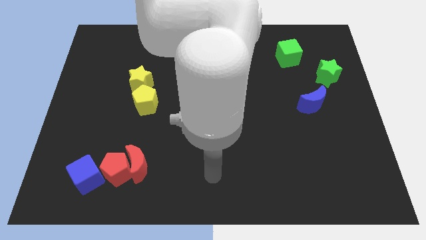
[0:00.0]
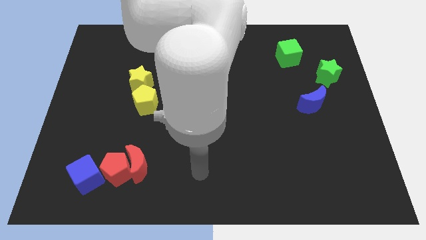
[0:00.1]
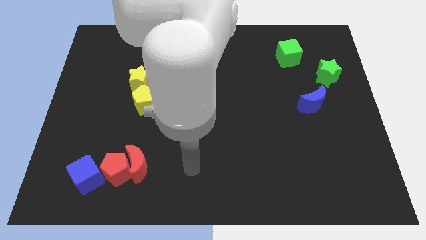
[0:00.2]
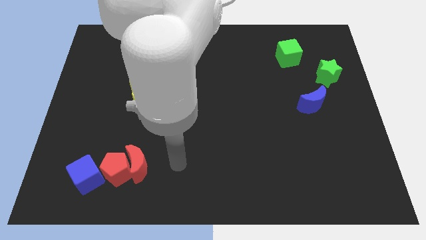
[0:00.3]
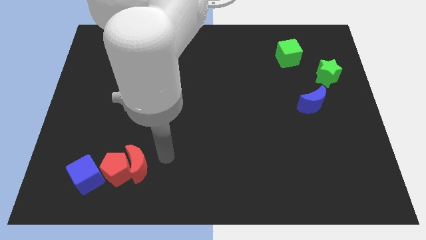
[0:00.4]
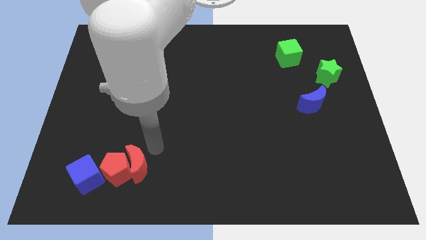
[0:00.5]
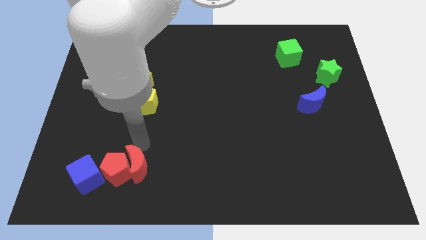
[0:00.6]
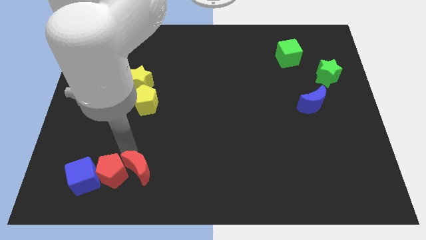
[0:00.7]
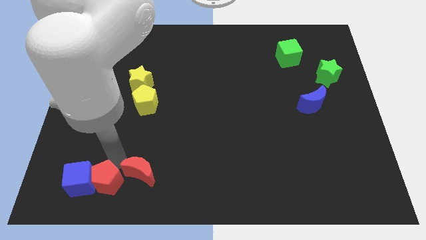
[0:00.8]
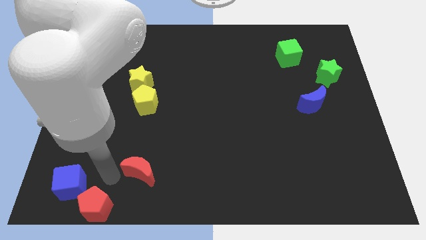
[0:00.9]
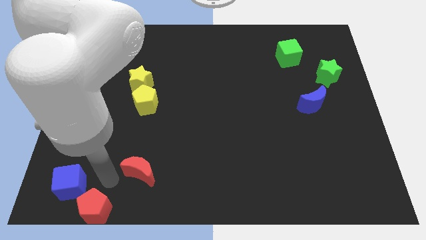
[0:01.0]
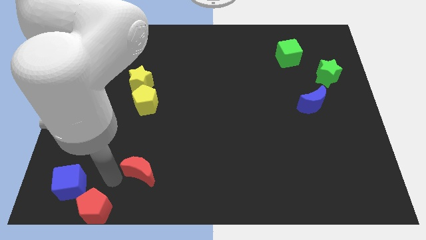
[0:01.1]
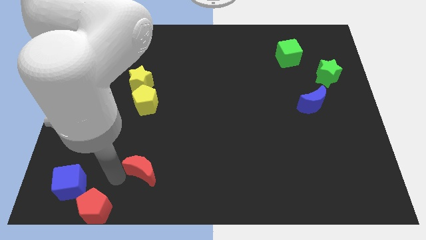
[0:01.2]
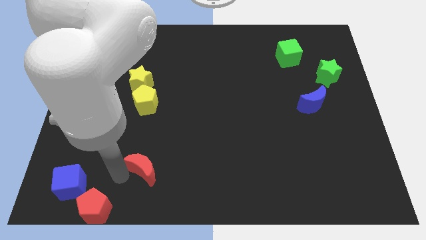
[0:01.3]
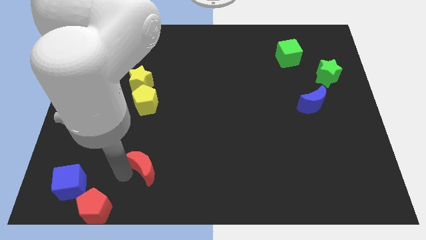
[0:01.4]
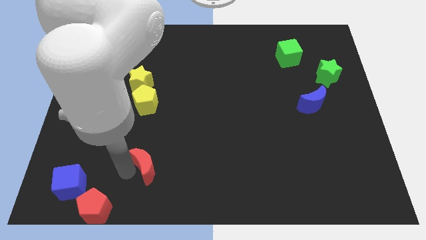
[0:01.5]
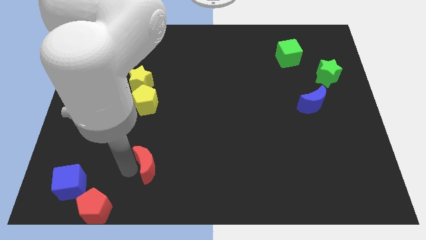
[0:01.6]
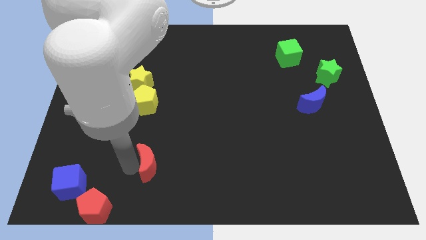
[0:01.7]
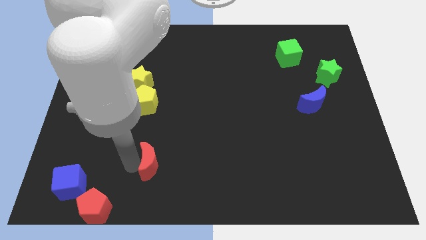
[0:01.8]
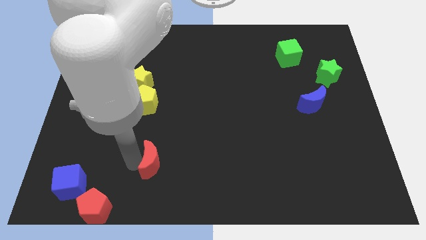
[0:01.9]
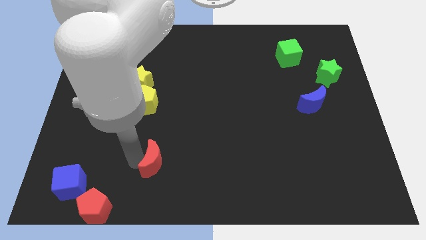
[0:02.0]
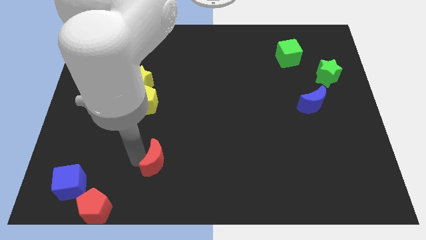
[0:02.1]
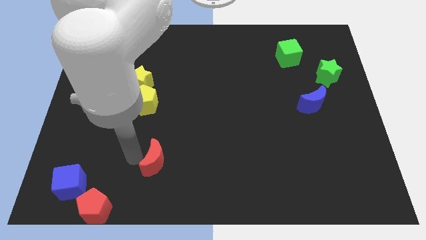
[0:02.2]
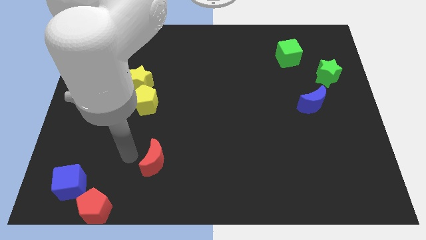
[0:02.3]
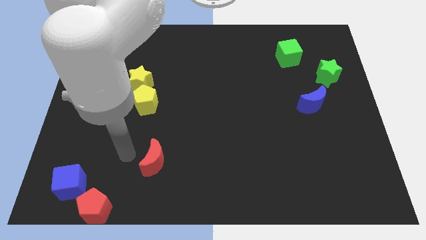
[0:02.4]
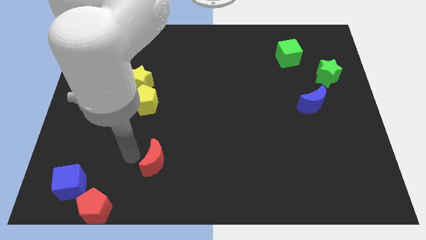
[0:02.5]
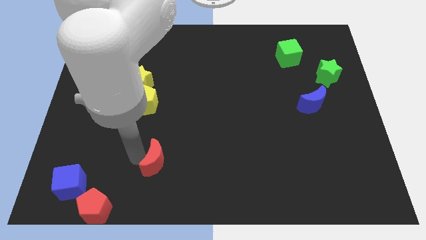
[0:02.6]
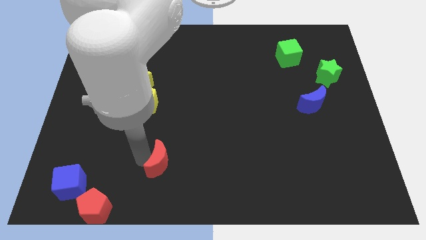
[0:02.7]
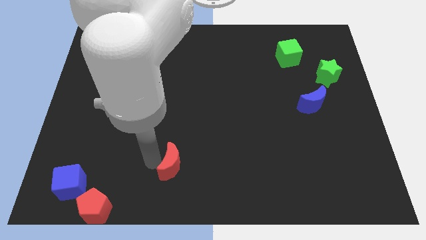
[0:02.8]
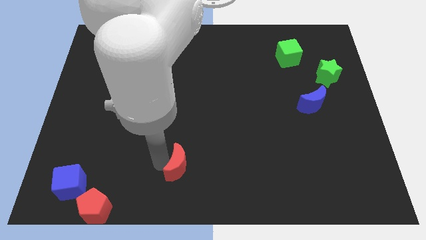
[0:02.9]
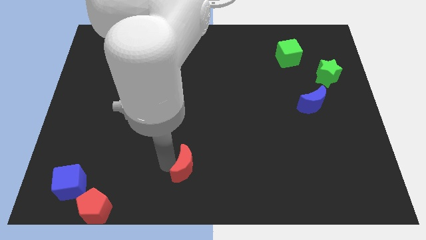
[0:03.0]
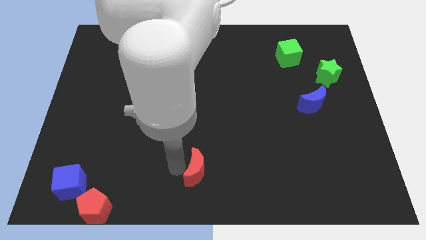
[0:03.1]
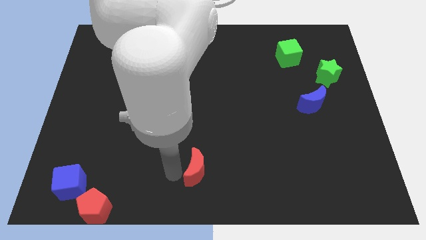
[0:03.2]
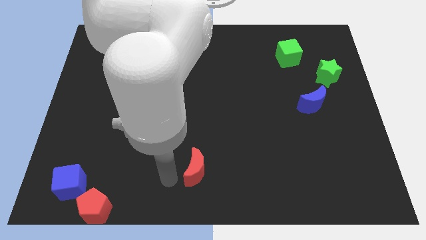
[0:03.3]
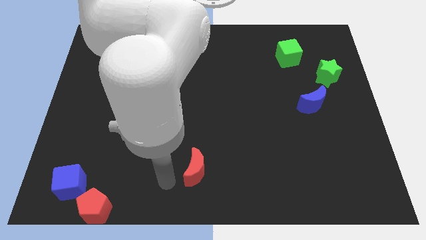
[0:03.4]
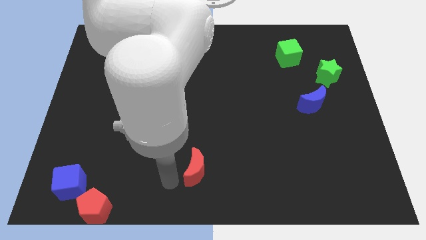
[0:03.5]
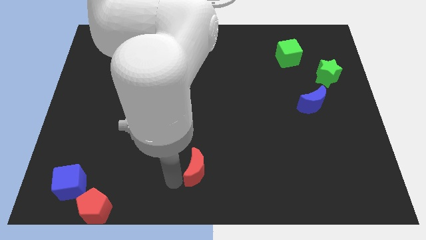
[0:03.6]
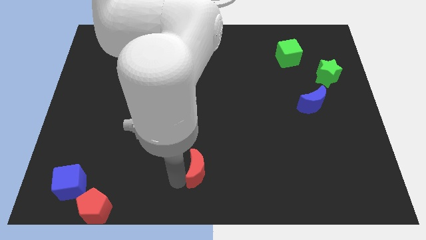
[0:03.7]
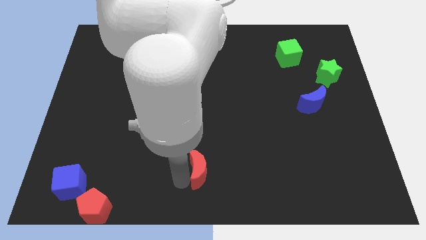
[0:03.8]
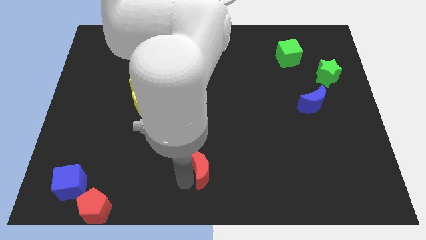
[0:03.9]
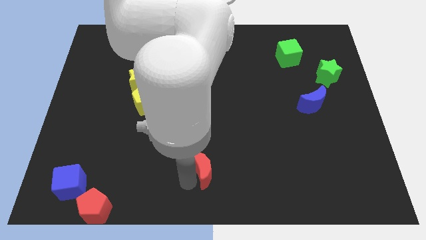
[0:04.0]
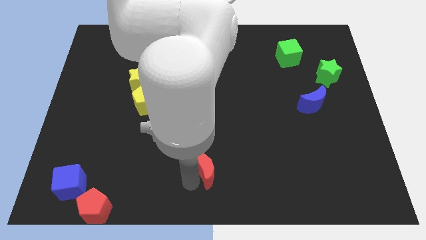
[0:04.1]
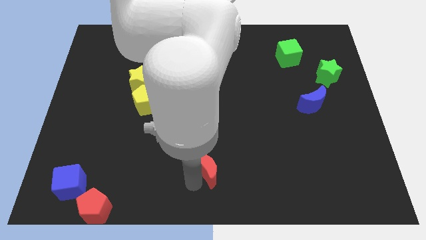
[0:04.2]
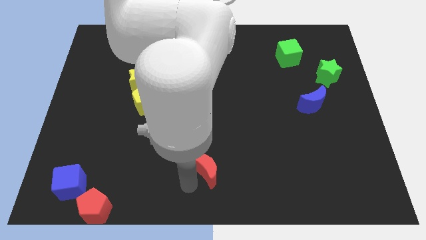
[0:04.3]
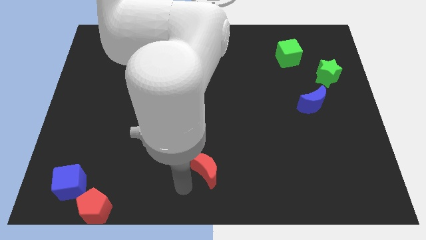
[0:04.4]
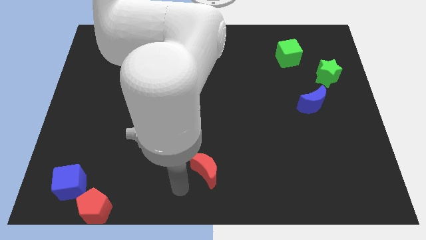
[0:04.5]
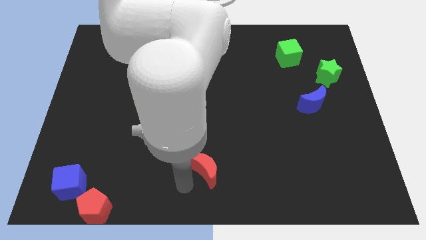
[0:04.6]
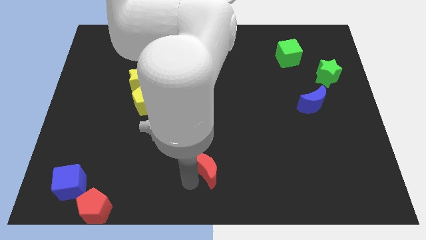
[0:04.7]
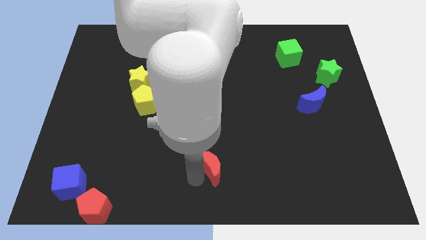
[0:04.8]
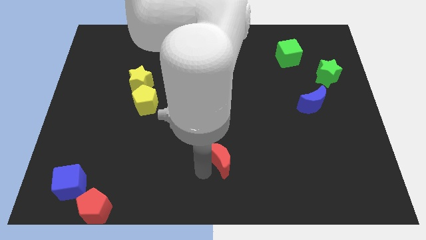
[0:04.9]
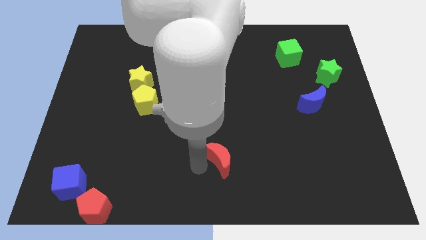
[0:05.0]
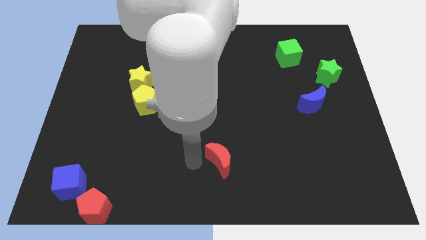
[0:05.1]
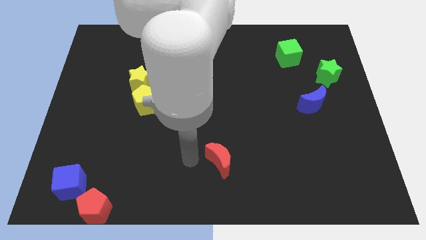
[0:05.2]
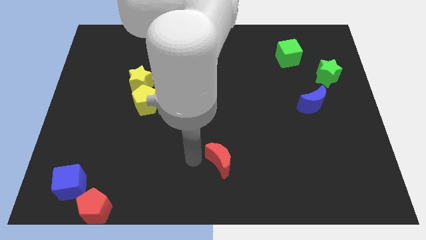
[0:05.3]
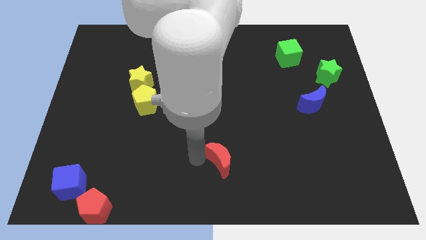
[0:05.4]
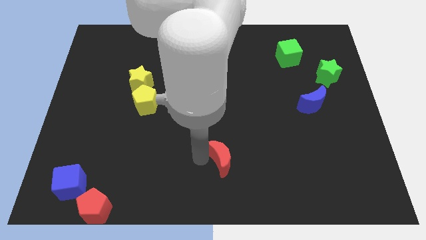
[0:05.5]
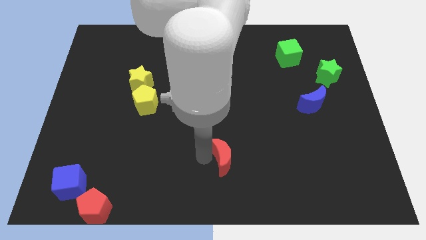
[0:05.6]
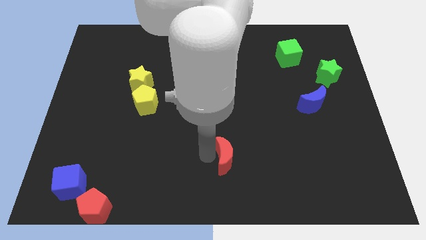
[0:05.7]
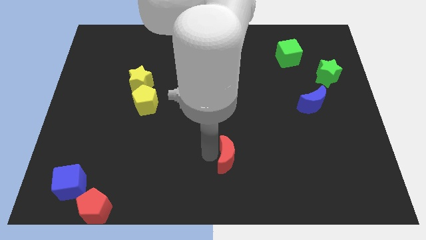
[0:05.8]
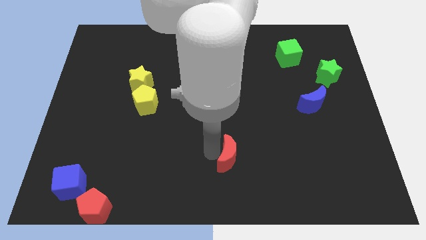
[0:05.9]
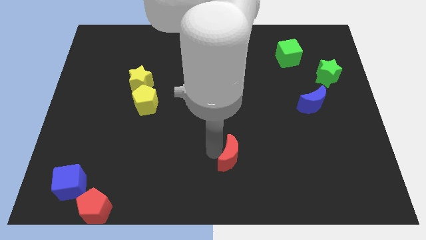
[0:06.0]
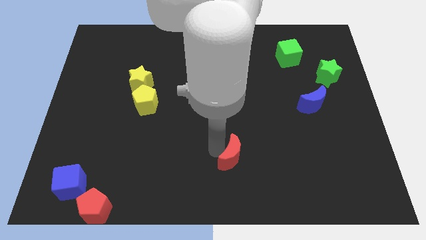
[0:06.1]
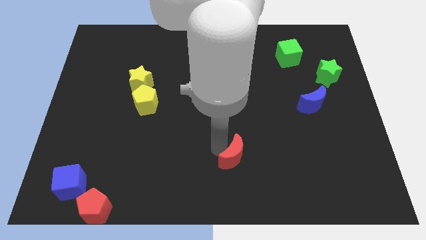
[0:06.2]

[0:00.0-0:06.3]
push the red moon to the right

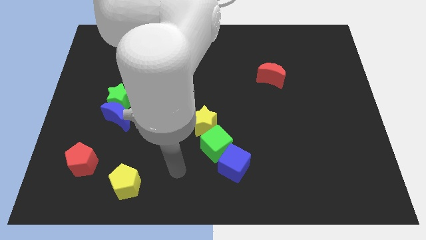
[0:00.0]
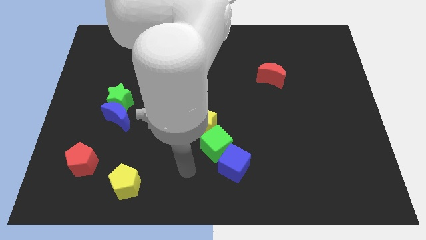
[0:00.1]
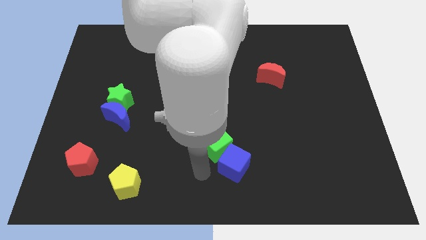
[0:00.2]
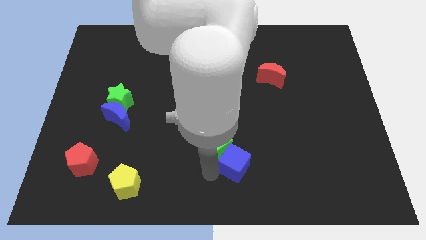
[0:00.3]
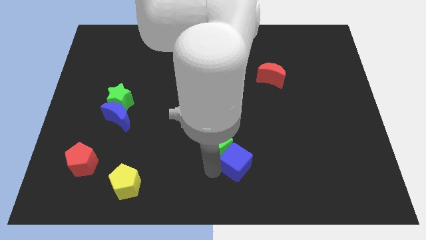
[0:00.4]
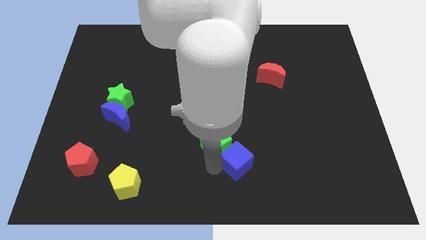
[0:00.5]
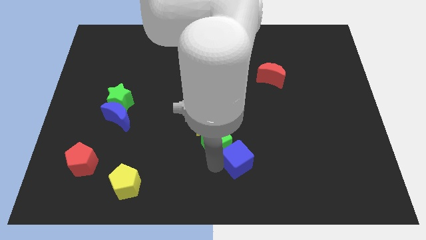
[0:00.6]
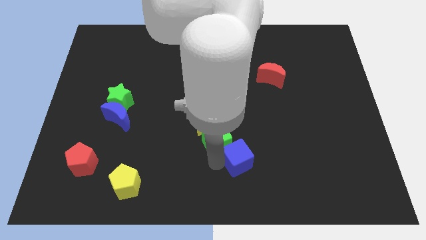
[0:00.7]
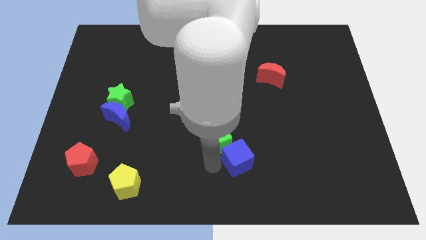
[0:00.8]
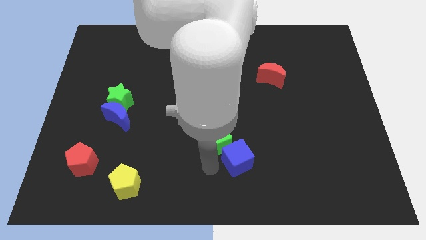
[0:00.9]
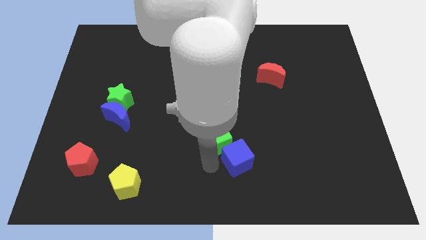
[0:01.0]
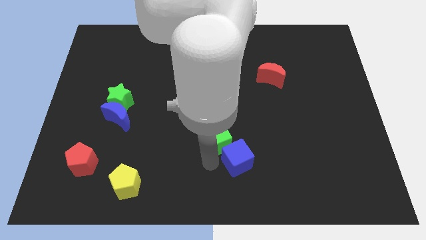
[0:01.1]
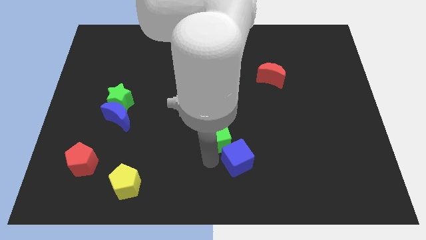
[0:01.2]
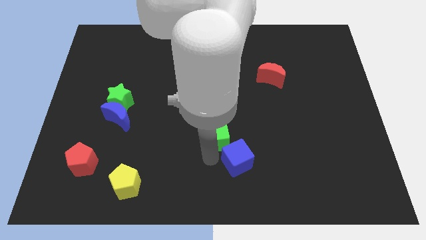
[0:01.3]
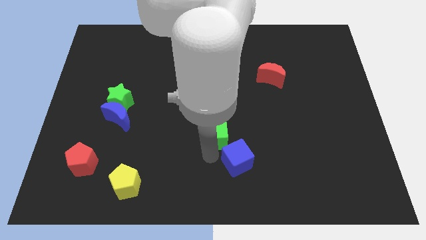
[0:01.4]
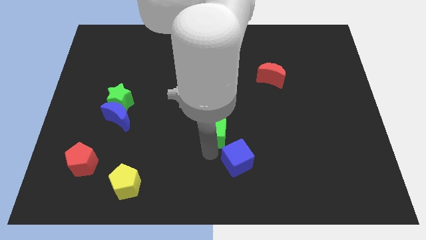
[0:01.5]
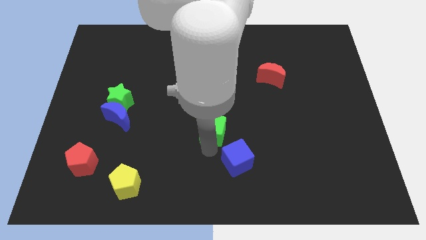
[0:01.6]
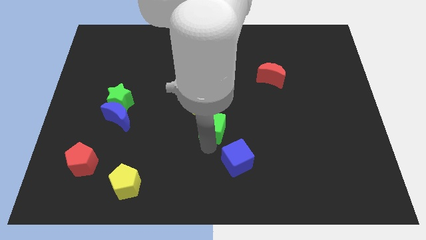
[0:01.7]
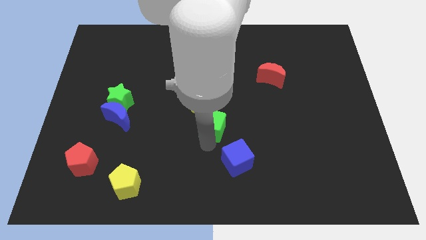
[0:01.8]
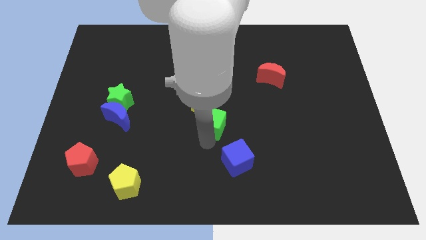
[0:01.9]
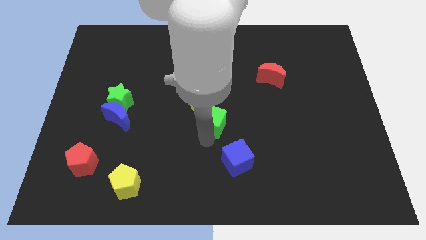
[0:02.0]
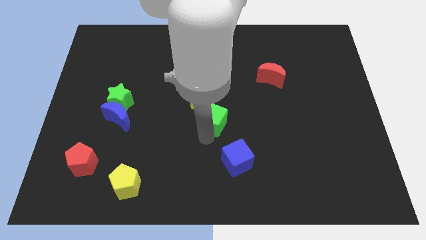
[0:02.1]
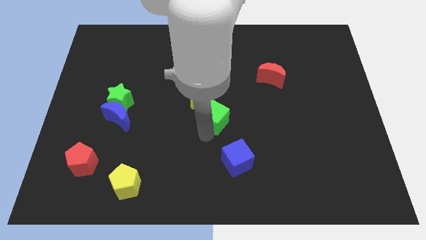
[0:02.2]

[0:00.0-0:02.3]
slide the green cube slightly up
